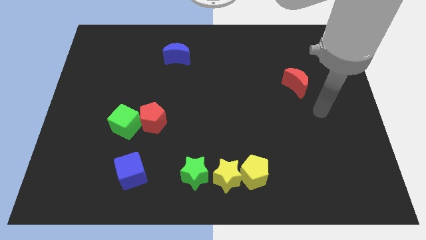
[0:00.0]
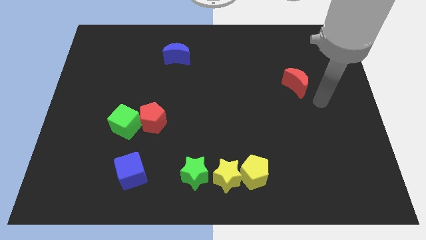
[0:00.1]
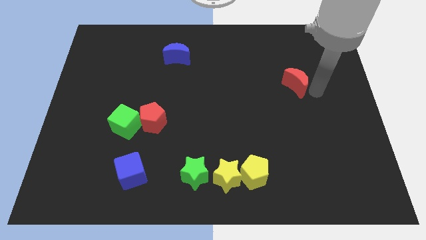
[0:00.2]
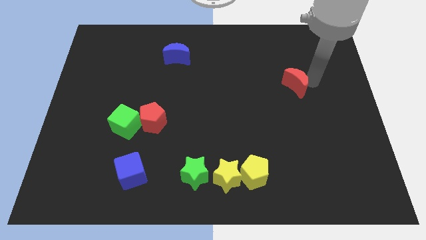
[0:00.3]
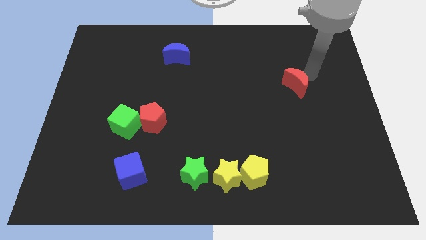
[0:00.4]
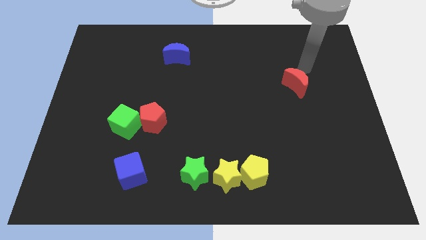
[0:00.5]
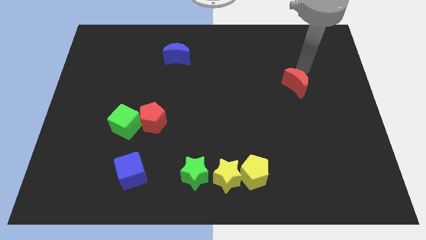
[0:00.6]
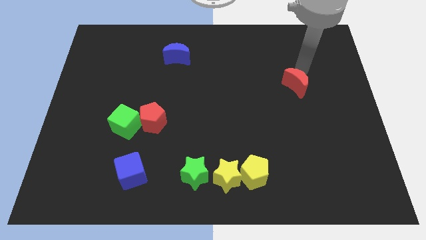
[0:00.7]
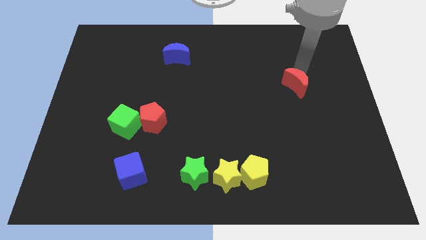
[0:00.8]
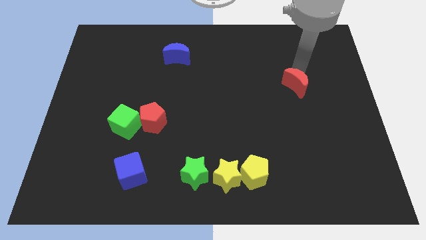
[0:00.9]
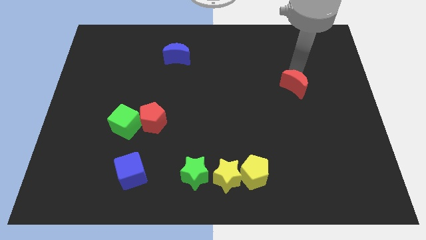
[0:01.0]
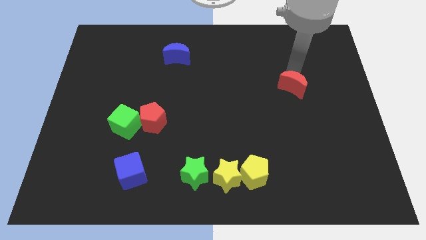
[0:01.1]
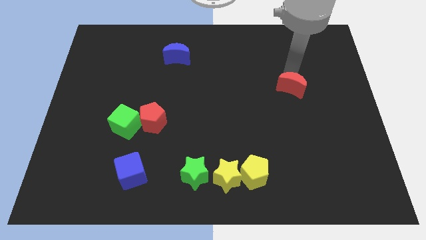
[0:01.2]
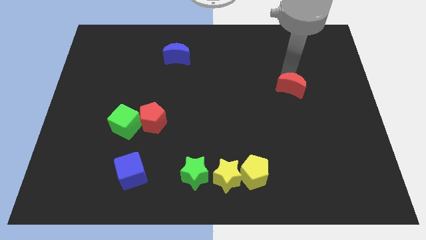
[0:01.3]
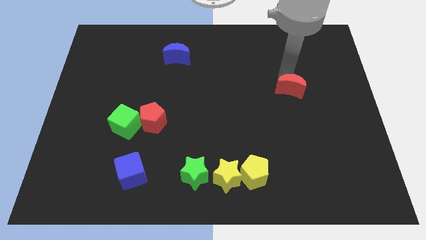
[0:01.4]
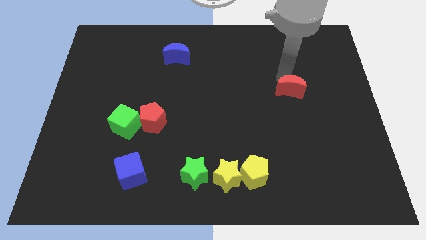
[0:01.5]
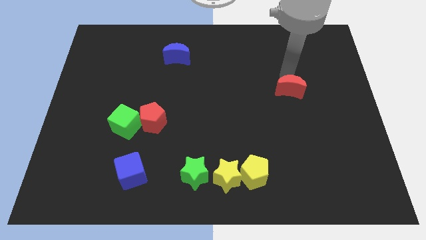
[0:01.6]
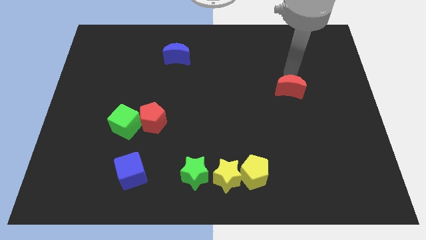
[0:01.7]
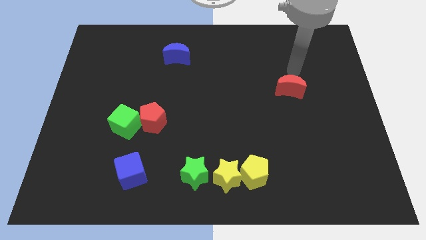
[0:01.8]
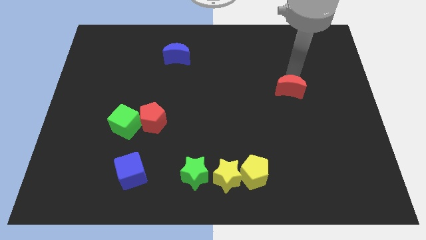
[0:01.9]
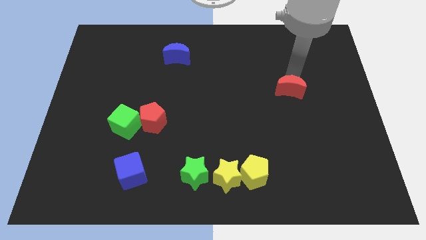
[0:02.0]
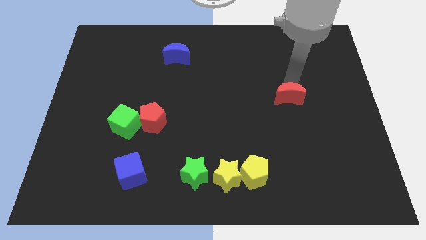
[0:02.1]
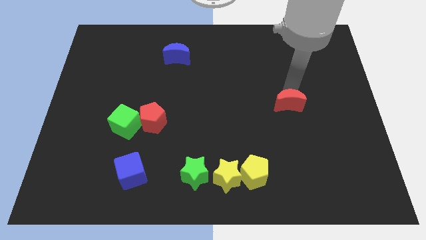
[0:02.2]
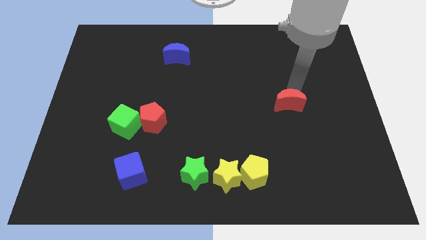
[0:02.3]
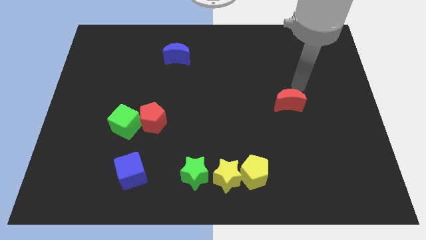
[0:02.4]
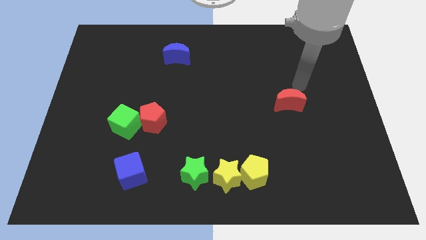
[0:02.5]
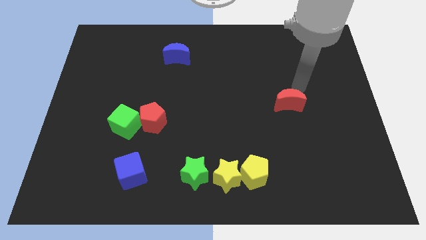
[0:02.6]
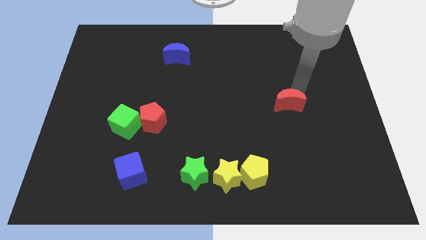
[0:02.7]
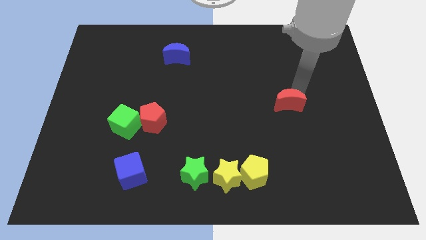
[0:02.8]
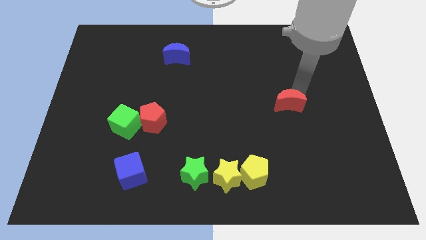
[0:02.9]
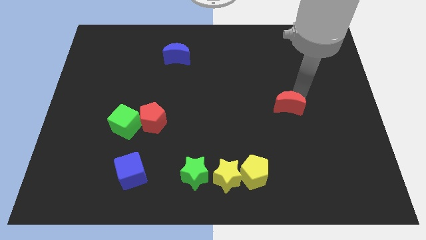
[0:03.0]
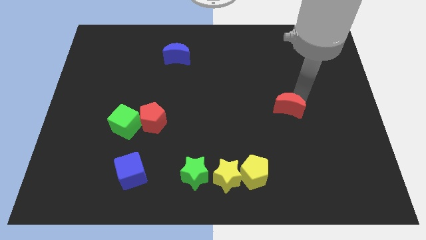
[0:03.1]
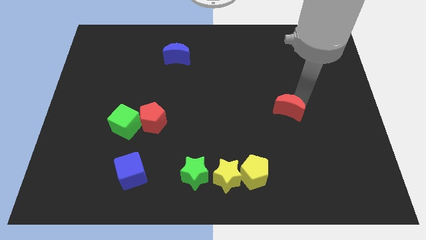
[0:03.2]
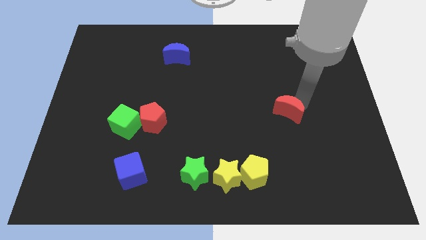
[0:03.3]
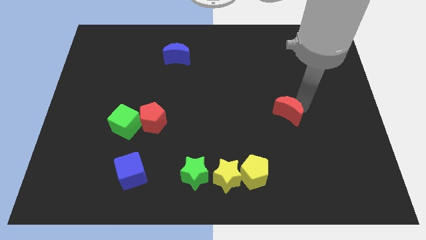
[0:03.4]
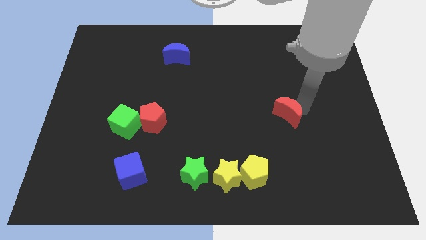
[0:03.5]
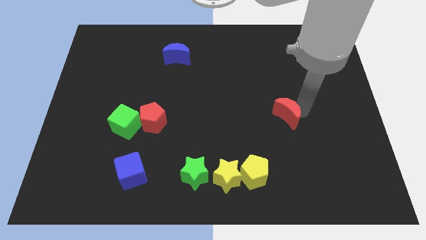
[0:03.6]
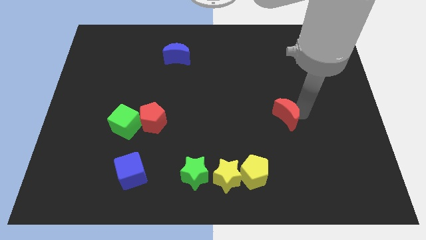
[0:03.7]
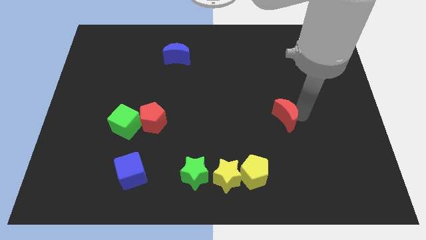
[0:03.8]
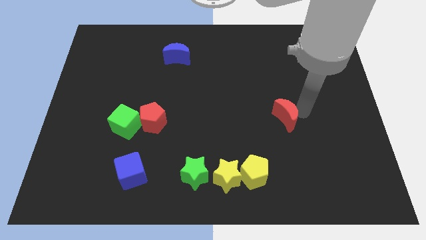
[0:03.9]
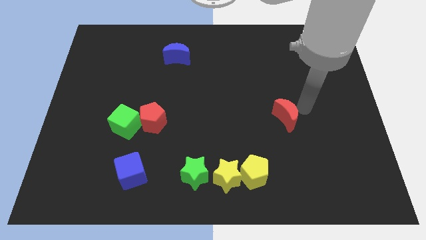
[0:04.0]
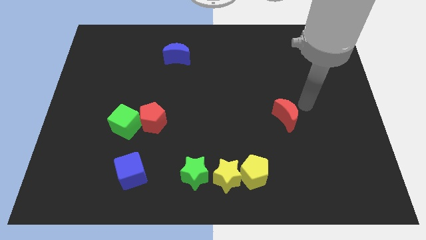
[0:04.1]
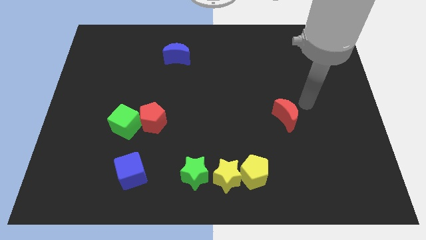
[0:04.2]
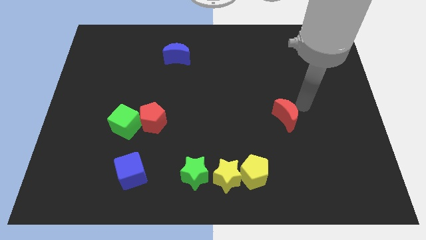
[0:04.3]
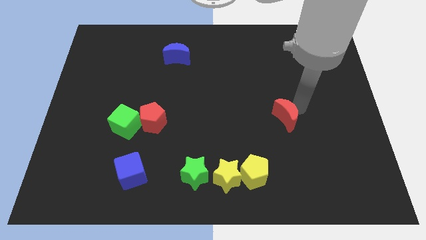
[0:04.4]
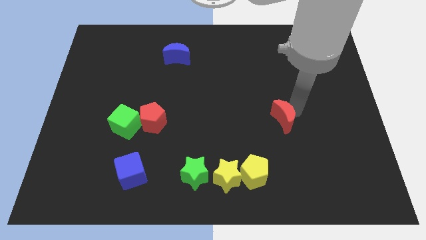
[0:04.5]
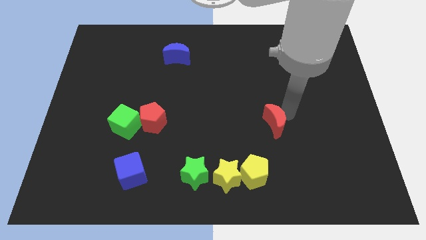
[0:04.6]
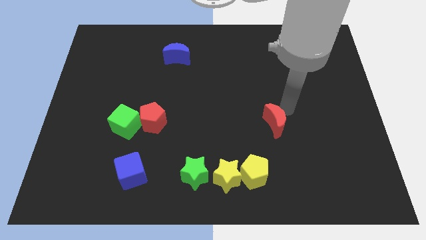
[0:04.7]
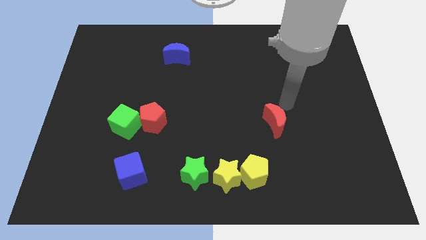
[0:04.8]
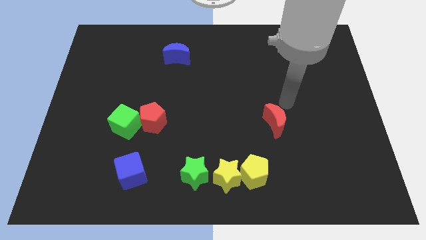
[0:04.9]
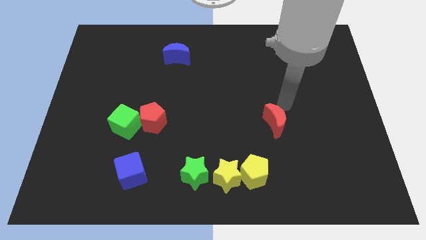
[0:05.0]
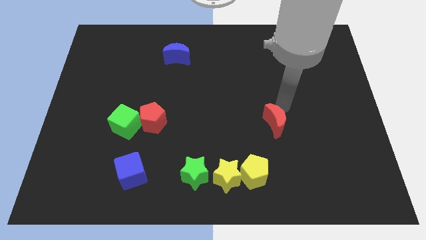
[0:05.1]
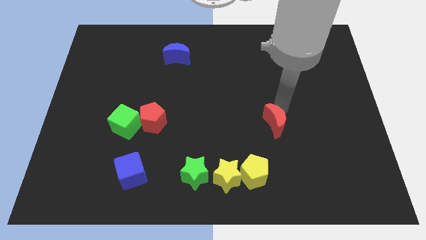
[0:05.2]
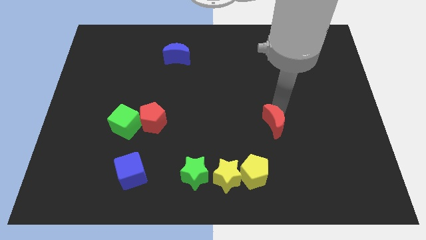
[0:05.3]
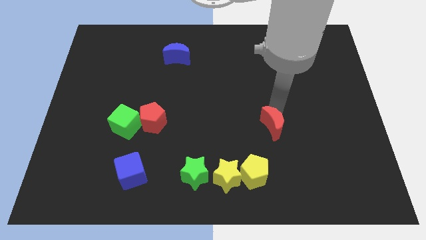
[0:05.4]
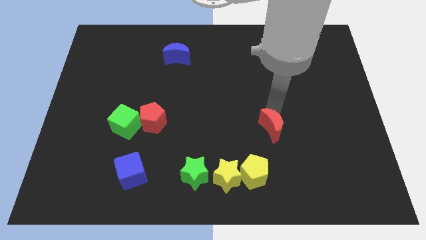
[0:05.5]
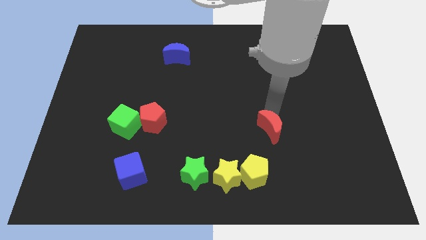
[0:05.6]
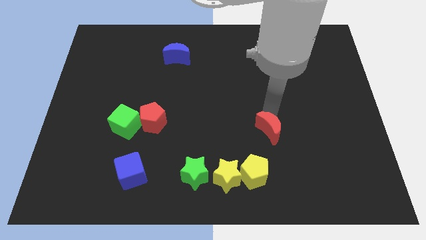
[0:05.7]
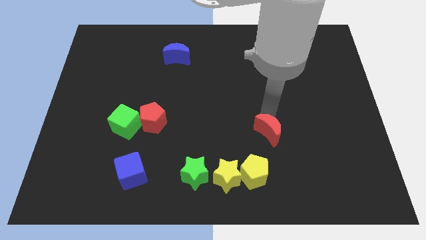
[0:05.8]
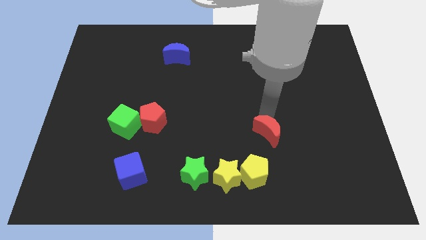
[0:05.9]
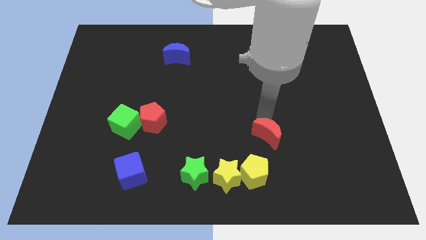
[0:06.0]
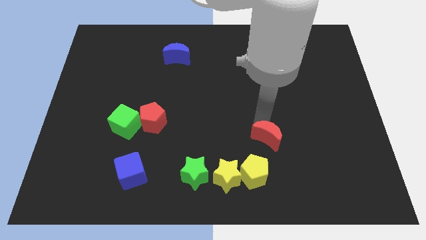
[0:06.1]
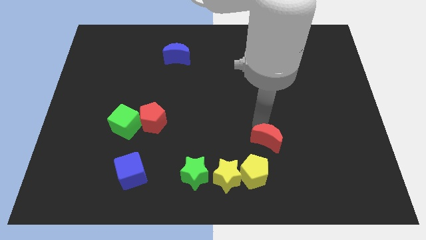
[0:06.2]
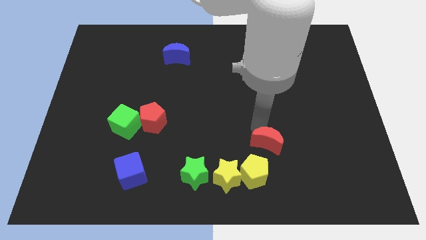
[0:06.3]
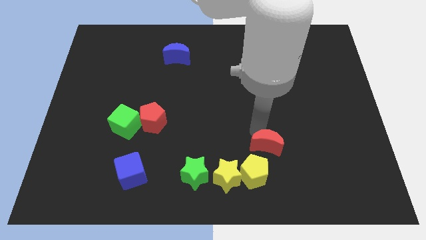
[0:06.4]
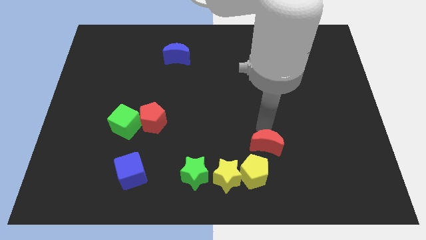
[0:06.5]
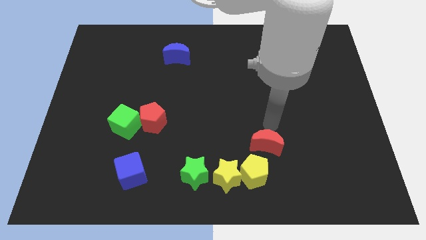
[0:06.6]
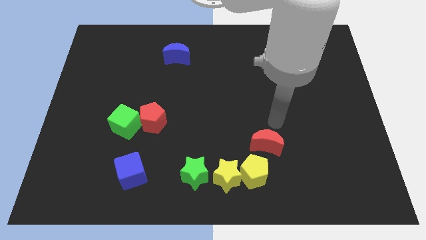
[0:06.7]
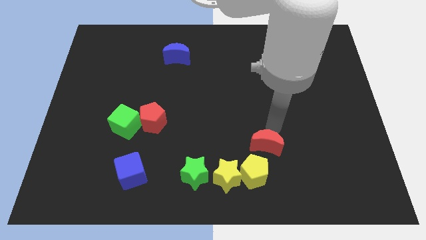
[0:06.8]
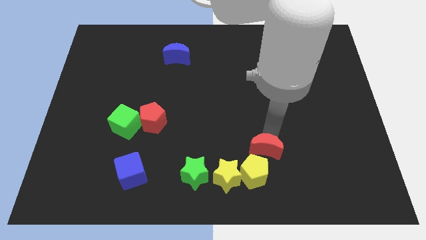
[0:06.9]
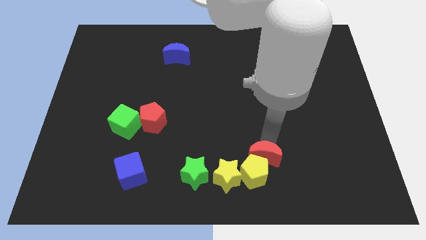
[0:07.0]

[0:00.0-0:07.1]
put the red moon close to the yellow pentagon
